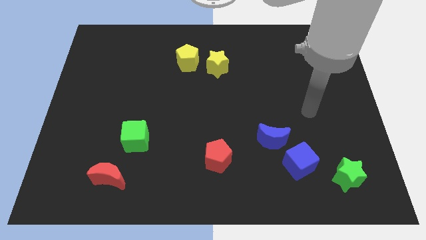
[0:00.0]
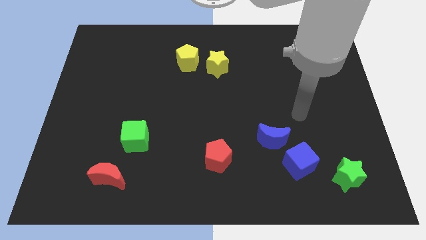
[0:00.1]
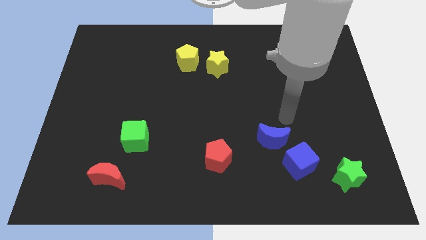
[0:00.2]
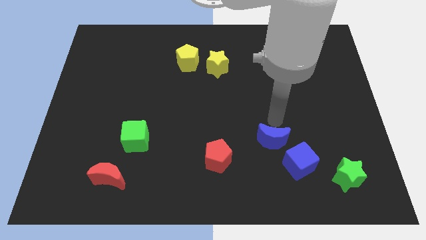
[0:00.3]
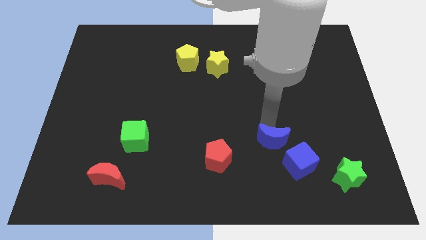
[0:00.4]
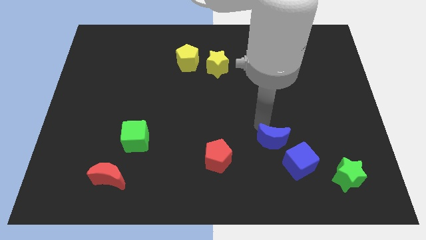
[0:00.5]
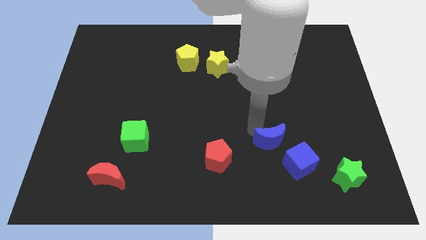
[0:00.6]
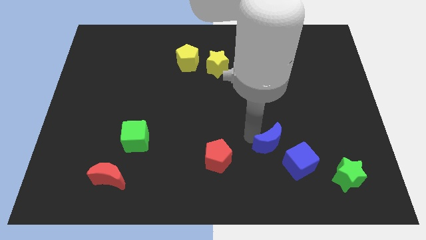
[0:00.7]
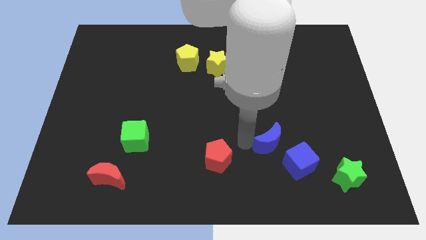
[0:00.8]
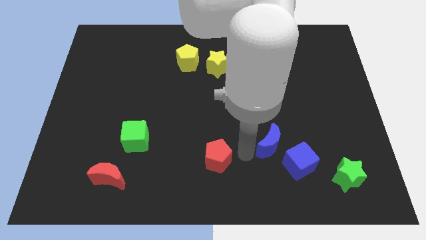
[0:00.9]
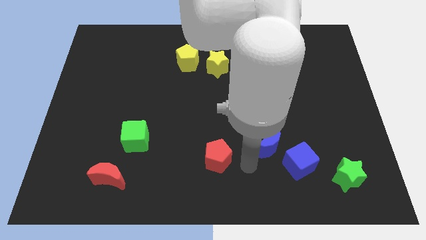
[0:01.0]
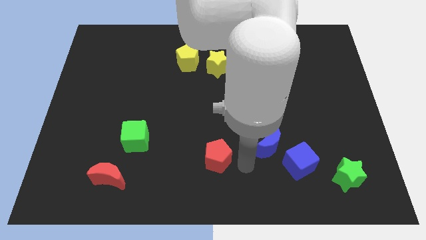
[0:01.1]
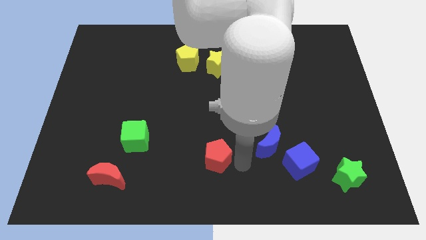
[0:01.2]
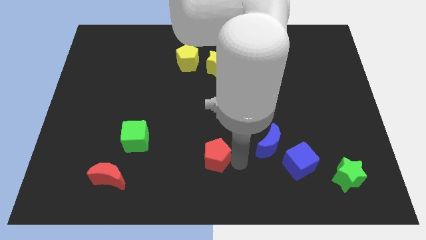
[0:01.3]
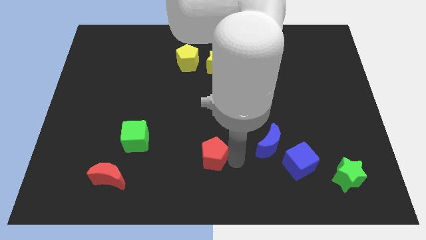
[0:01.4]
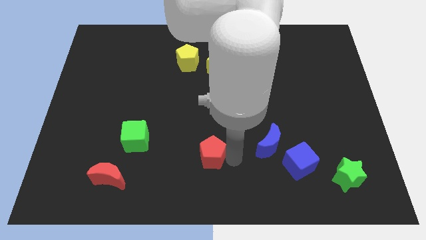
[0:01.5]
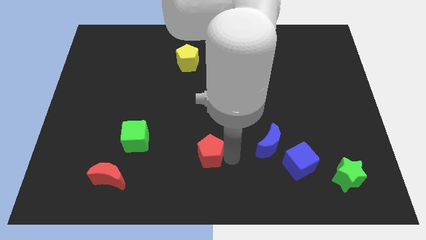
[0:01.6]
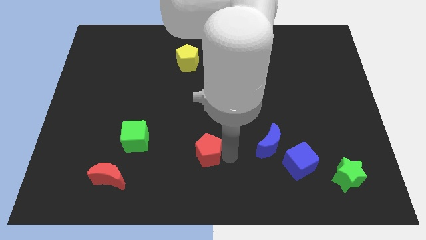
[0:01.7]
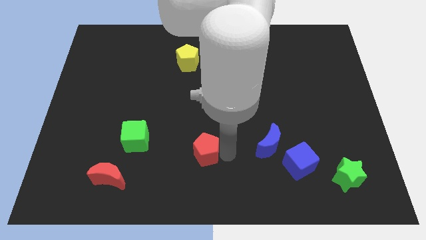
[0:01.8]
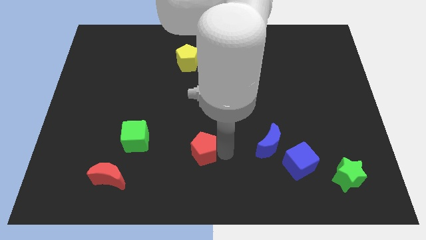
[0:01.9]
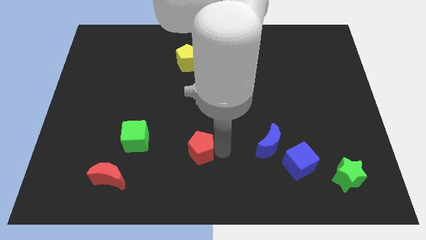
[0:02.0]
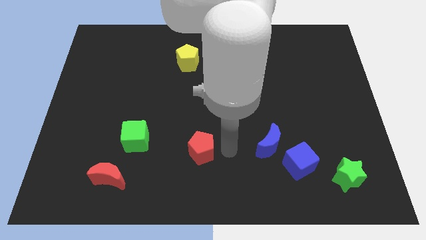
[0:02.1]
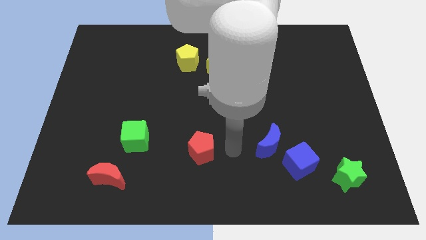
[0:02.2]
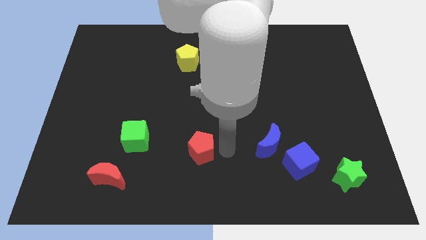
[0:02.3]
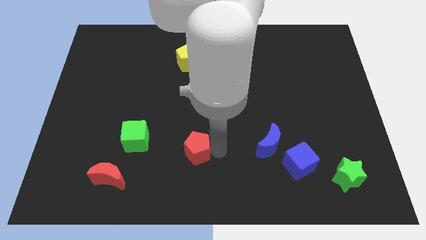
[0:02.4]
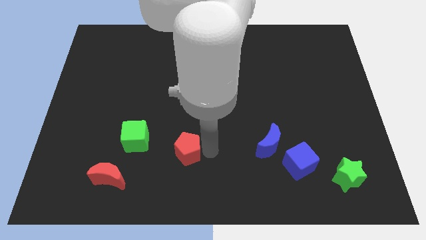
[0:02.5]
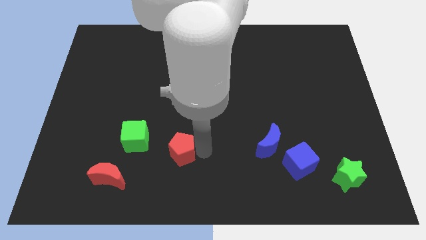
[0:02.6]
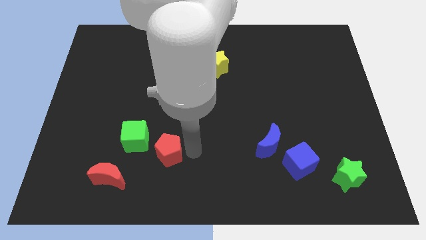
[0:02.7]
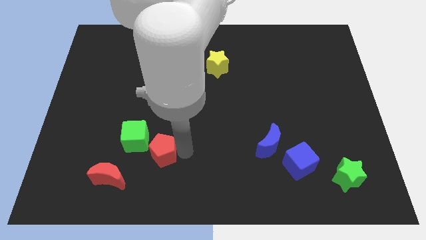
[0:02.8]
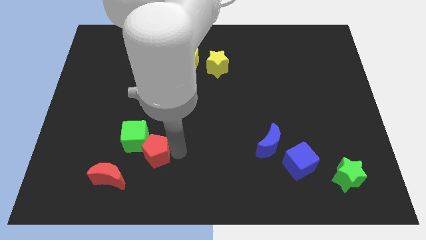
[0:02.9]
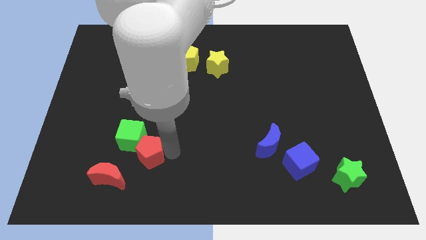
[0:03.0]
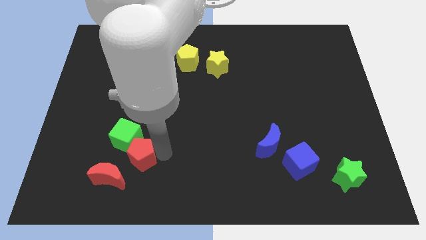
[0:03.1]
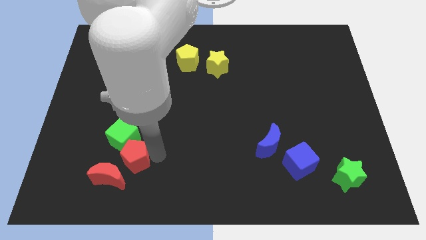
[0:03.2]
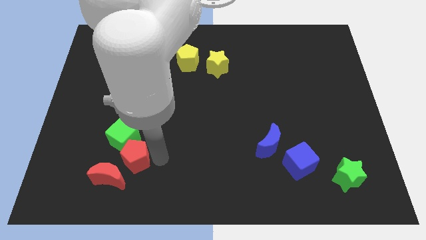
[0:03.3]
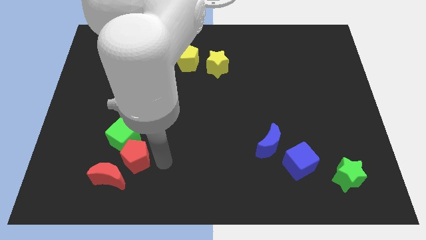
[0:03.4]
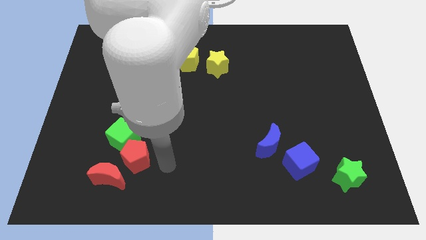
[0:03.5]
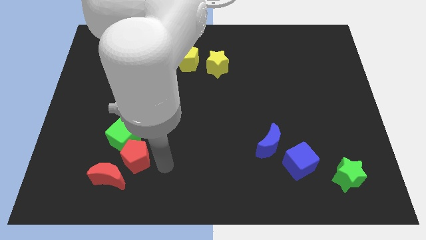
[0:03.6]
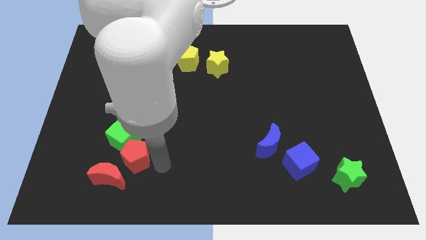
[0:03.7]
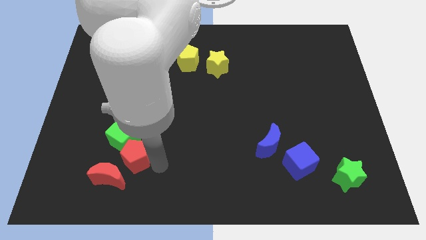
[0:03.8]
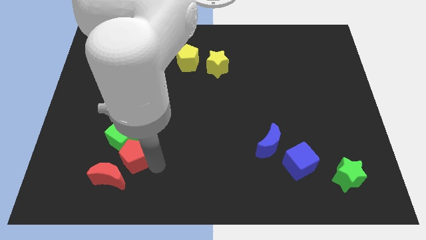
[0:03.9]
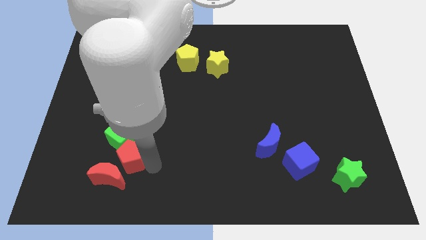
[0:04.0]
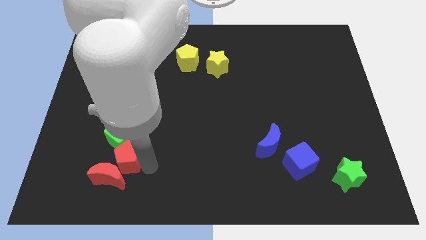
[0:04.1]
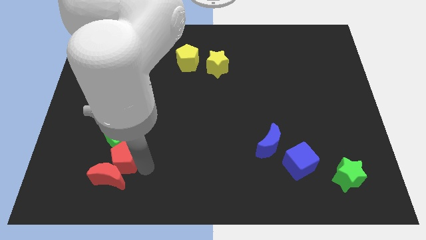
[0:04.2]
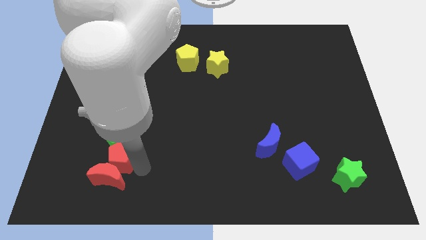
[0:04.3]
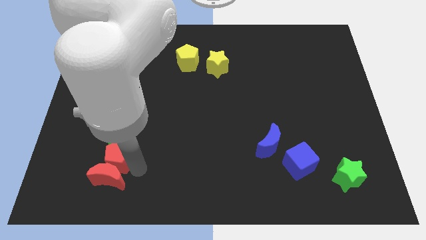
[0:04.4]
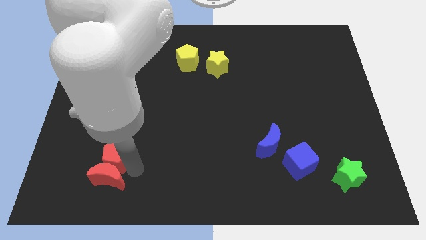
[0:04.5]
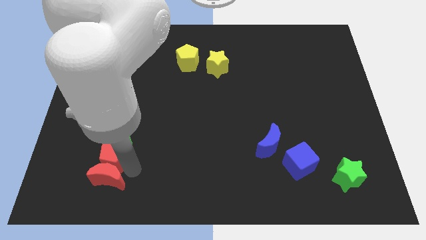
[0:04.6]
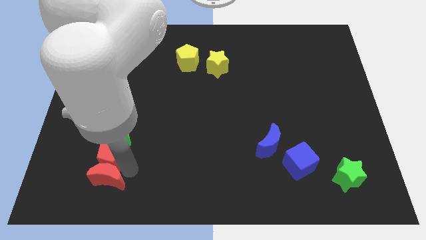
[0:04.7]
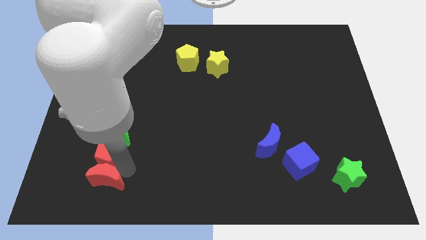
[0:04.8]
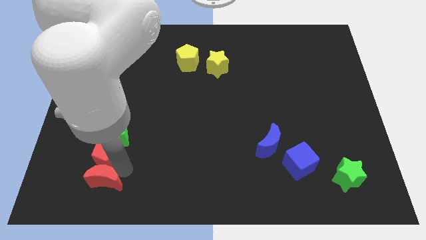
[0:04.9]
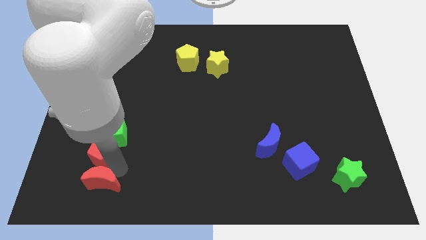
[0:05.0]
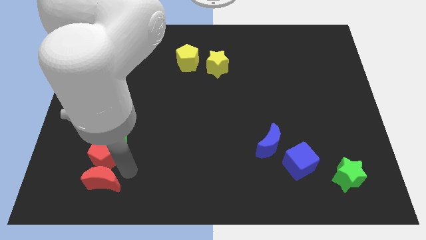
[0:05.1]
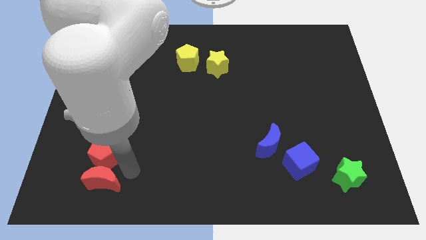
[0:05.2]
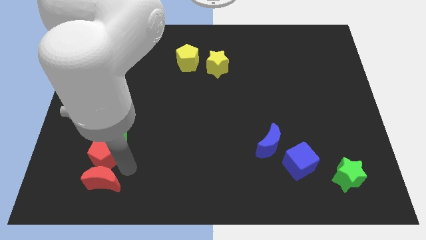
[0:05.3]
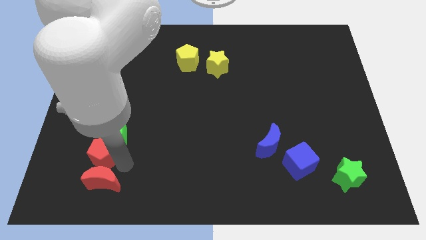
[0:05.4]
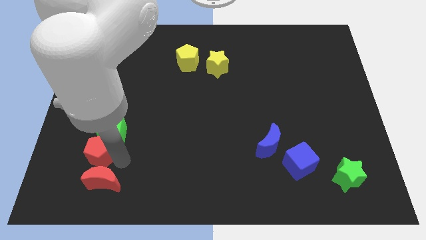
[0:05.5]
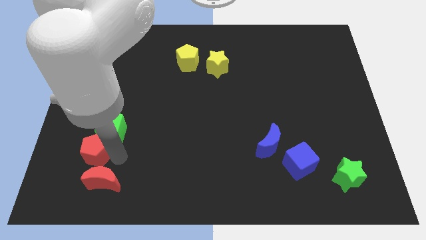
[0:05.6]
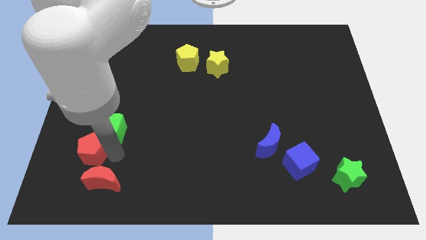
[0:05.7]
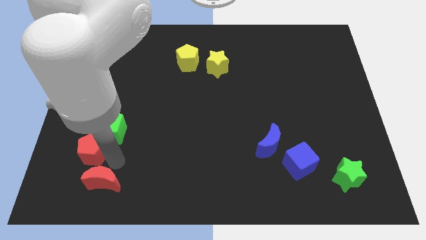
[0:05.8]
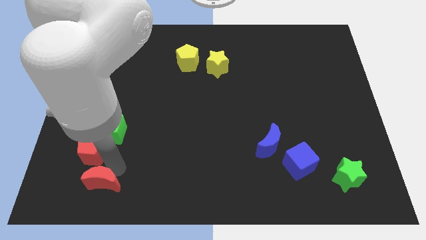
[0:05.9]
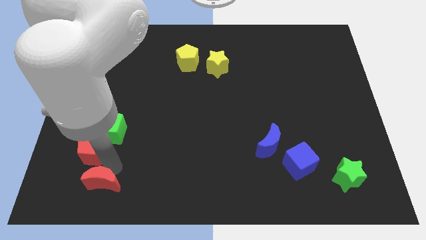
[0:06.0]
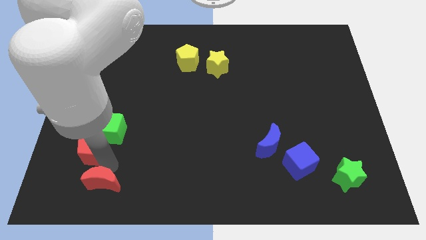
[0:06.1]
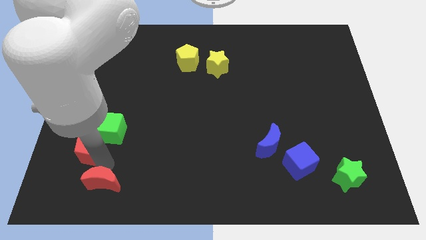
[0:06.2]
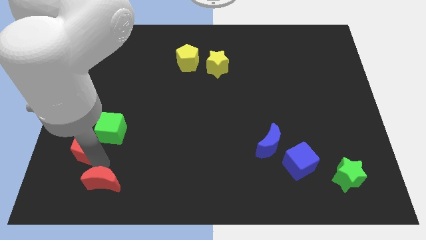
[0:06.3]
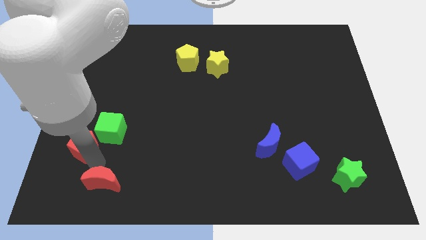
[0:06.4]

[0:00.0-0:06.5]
slide the red pentagon to the left of the green cube

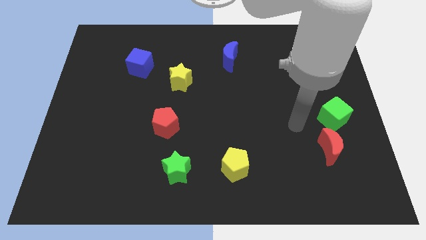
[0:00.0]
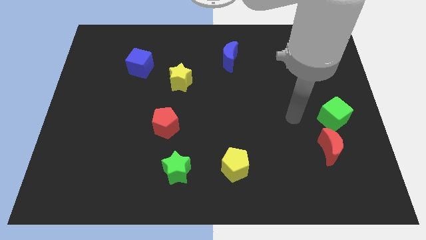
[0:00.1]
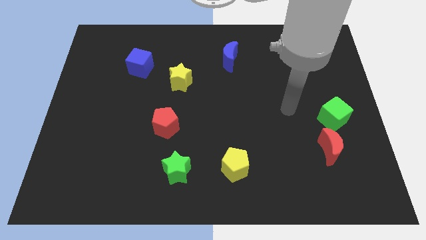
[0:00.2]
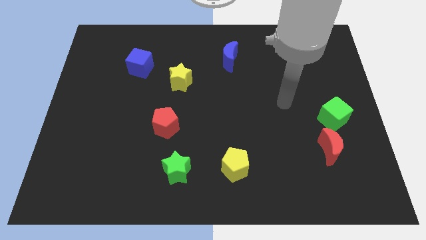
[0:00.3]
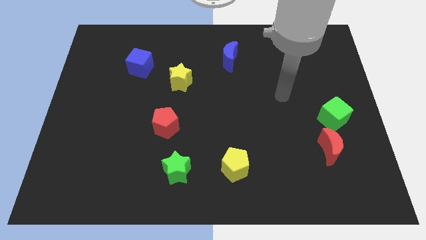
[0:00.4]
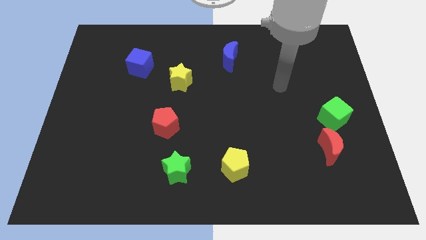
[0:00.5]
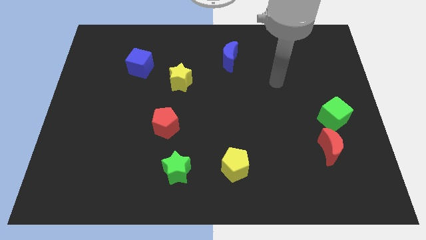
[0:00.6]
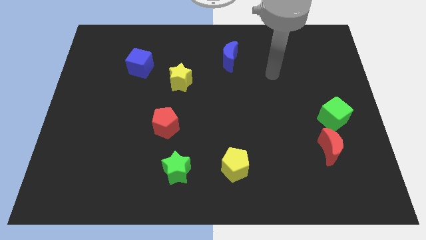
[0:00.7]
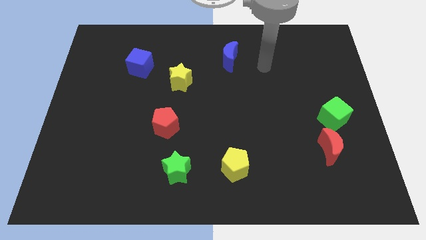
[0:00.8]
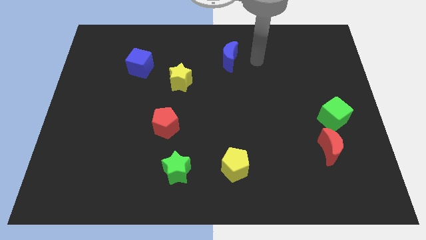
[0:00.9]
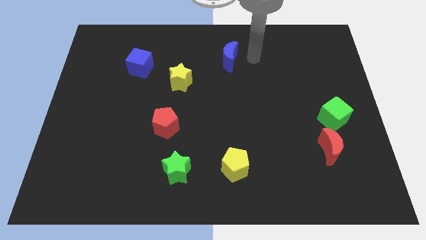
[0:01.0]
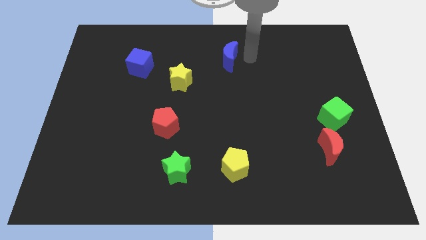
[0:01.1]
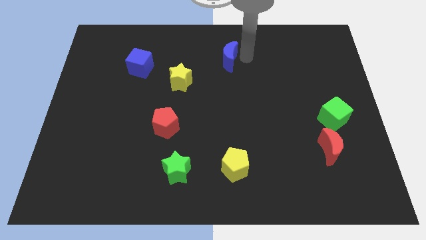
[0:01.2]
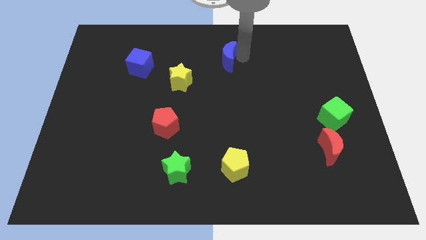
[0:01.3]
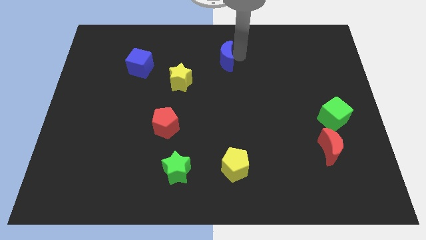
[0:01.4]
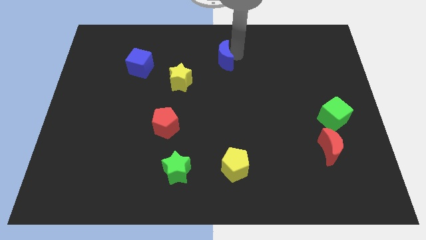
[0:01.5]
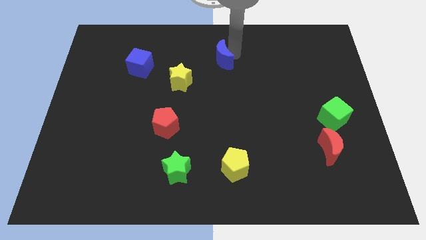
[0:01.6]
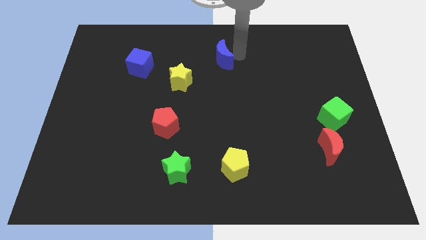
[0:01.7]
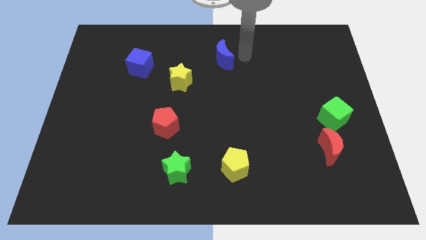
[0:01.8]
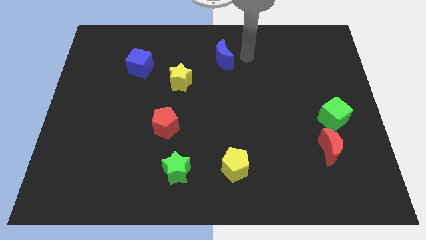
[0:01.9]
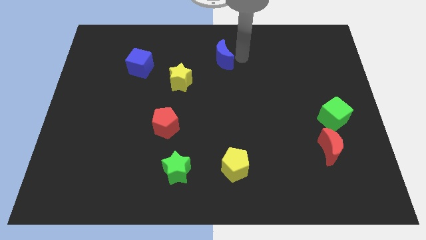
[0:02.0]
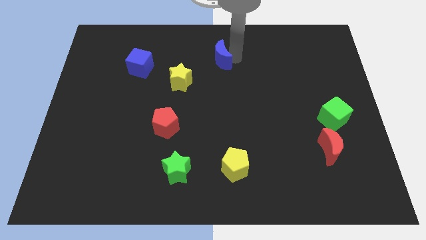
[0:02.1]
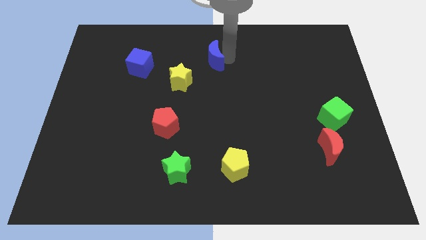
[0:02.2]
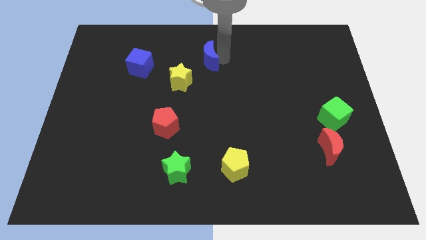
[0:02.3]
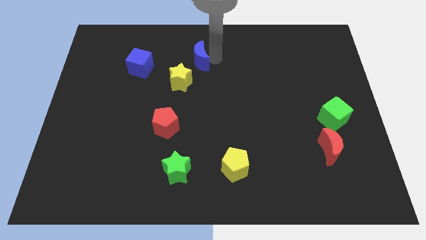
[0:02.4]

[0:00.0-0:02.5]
slide the blue moon to the right side of the blue cube
